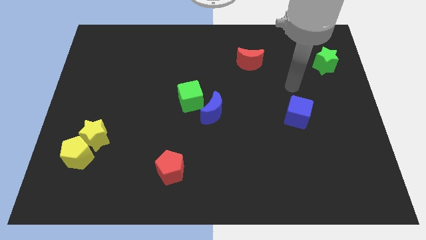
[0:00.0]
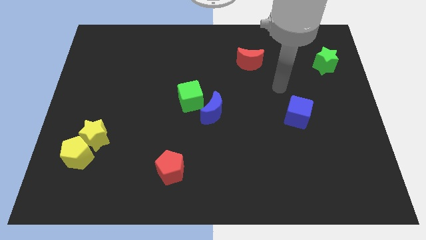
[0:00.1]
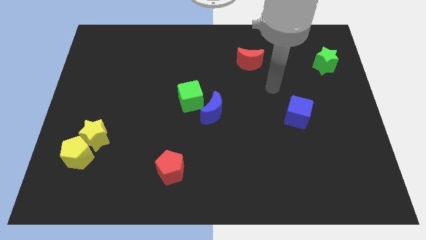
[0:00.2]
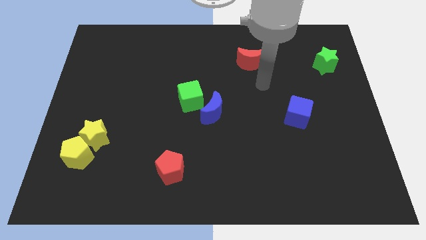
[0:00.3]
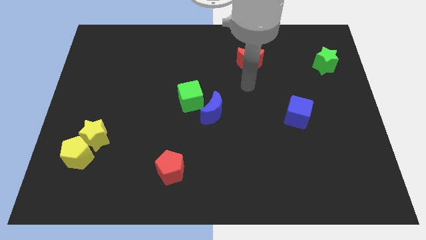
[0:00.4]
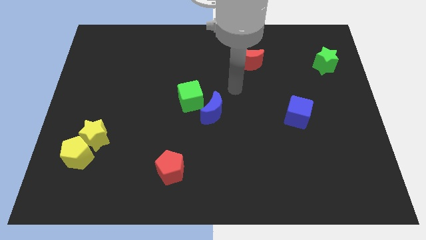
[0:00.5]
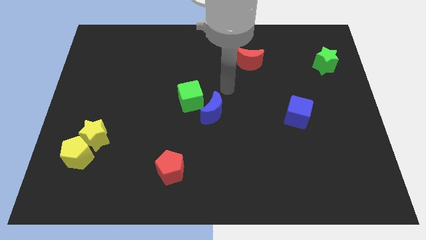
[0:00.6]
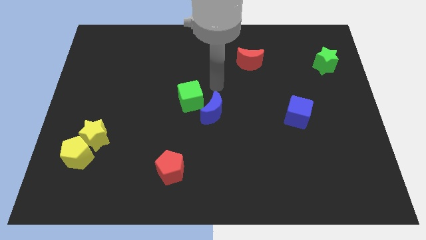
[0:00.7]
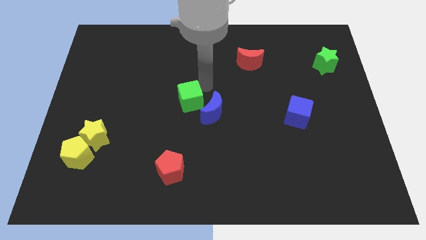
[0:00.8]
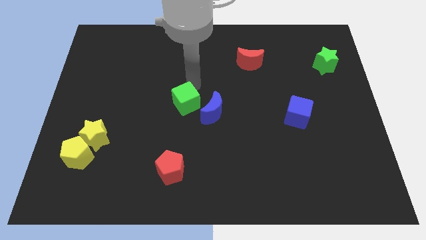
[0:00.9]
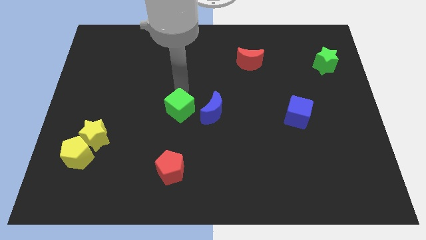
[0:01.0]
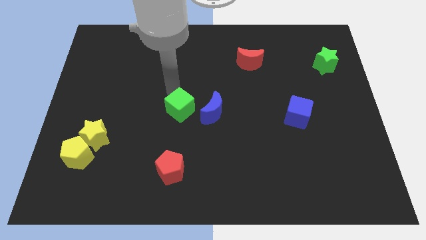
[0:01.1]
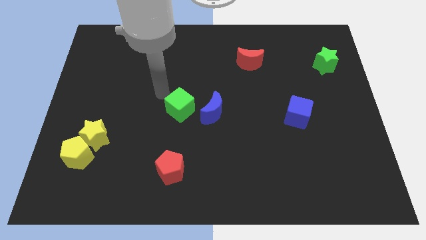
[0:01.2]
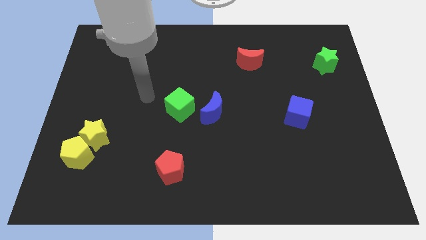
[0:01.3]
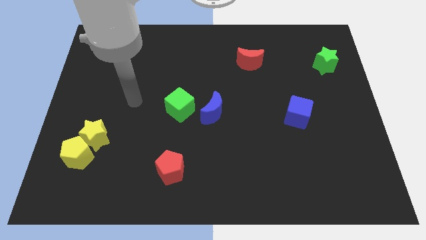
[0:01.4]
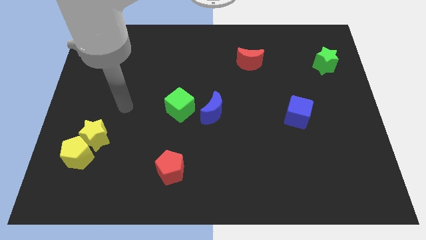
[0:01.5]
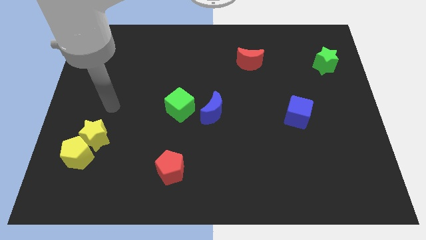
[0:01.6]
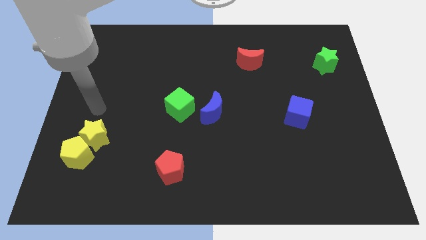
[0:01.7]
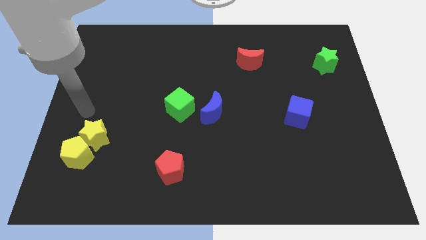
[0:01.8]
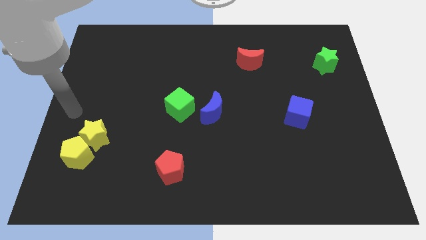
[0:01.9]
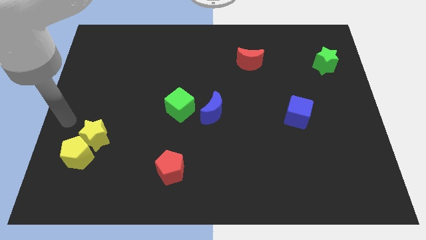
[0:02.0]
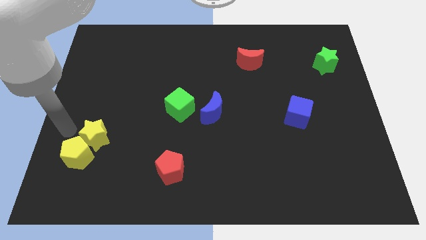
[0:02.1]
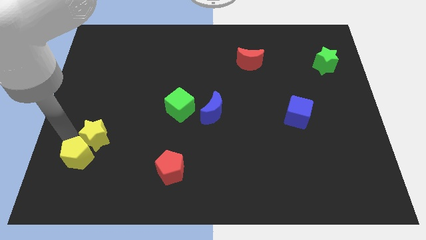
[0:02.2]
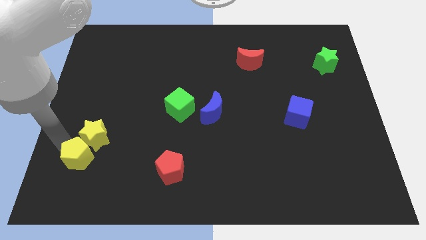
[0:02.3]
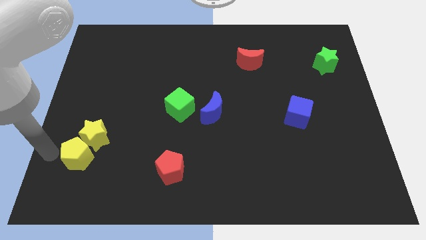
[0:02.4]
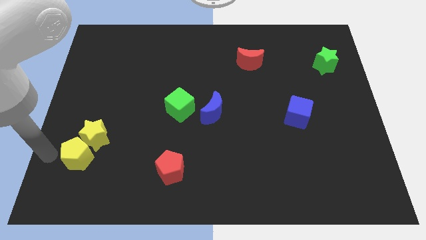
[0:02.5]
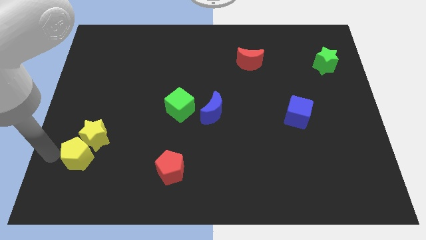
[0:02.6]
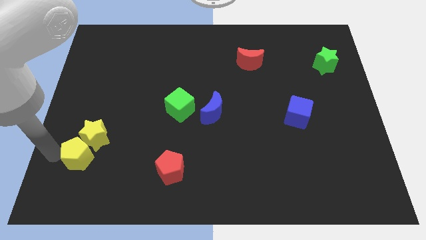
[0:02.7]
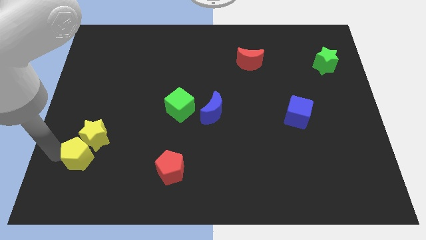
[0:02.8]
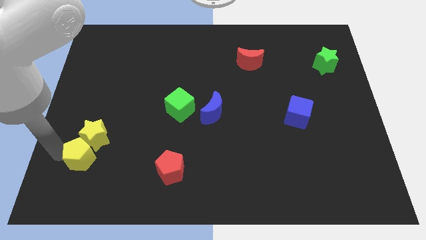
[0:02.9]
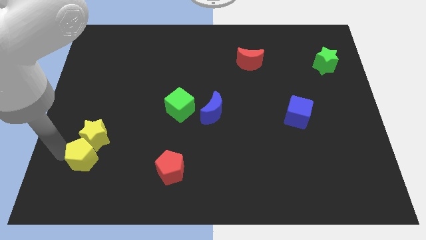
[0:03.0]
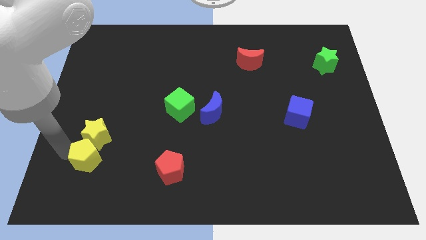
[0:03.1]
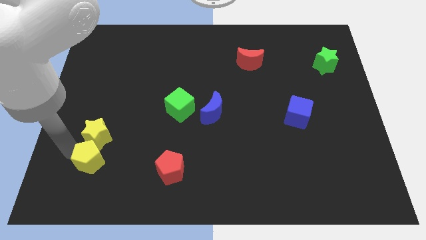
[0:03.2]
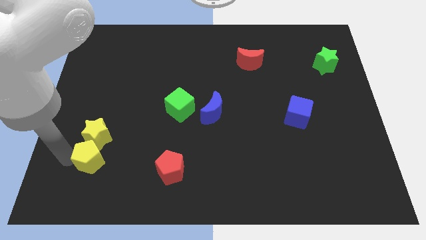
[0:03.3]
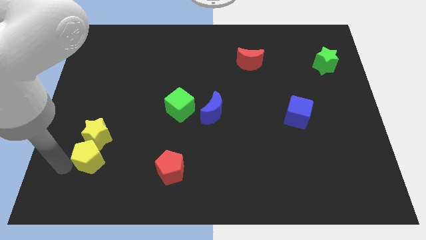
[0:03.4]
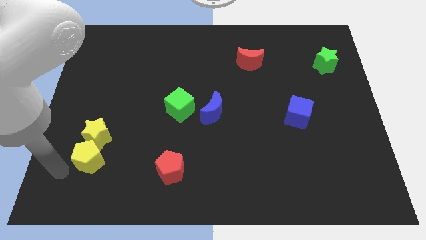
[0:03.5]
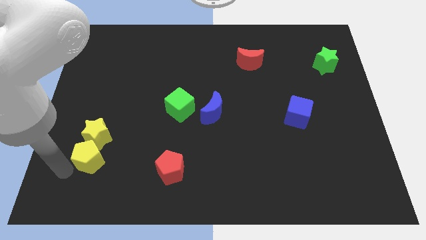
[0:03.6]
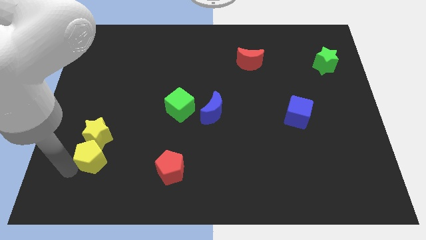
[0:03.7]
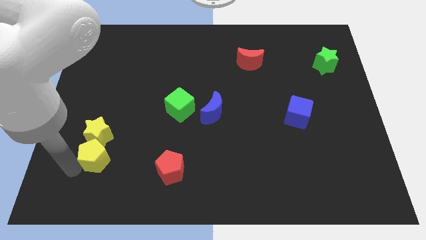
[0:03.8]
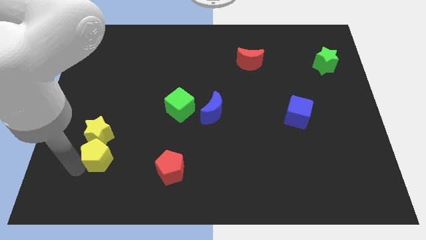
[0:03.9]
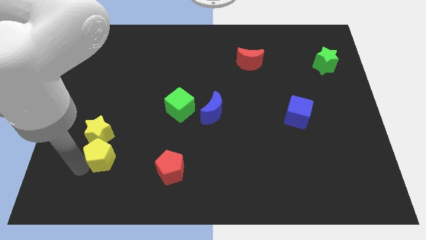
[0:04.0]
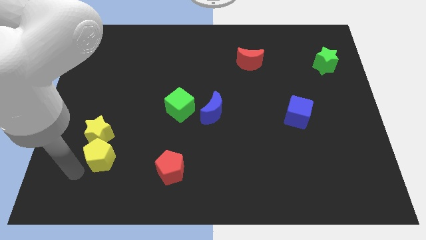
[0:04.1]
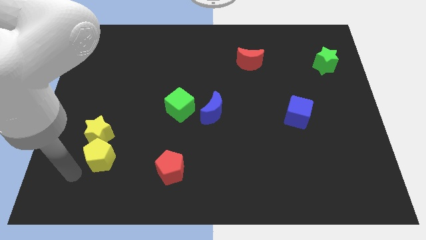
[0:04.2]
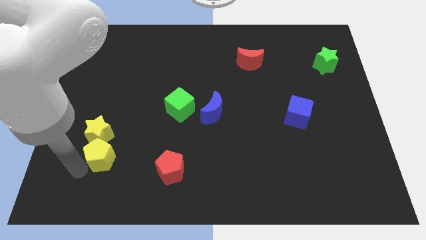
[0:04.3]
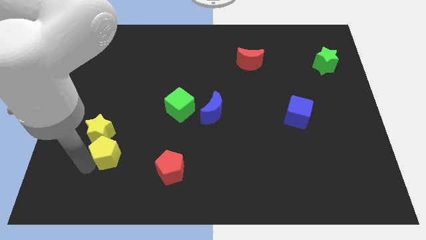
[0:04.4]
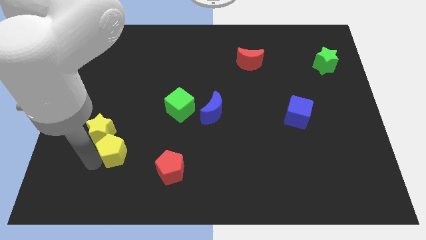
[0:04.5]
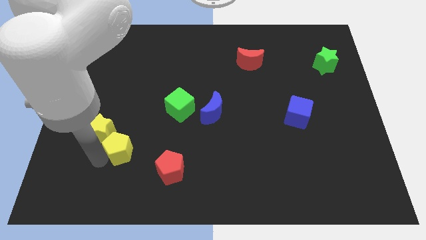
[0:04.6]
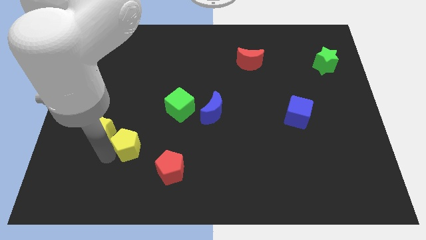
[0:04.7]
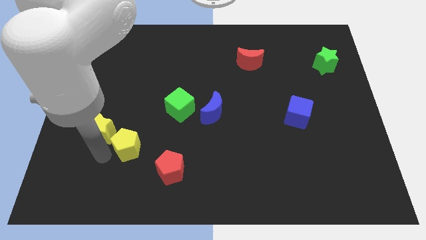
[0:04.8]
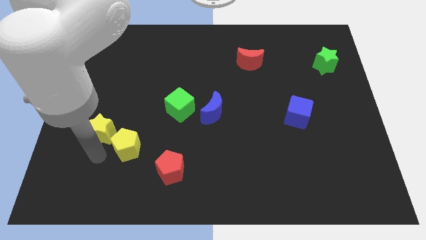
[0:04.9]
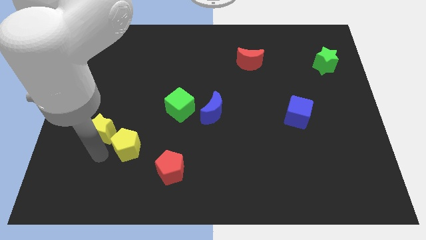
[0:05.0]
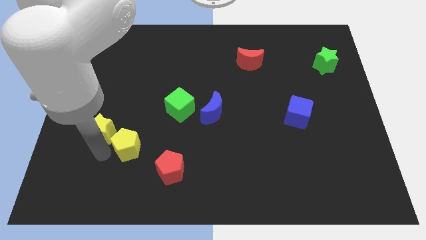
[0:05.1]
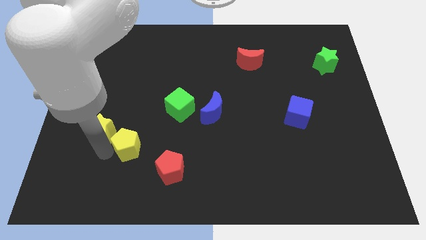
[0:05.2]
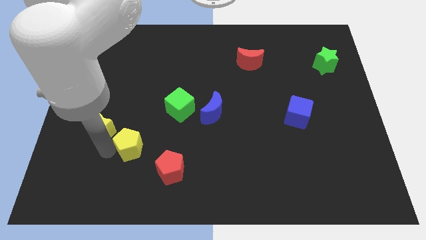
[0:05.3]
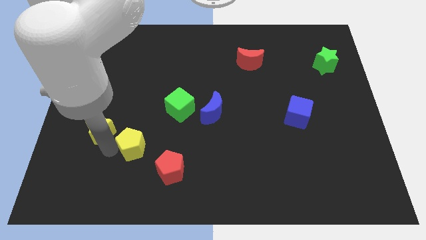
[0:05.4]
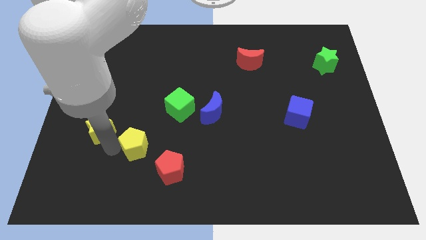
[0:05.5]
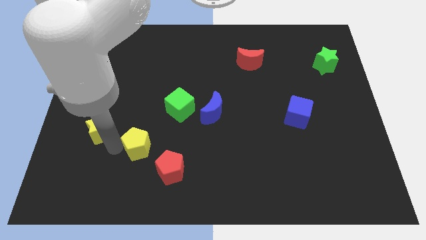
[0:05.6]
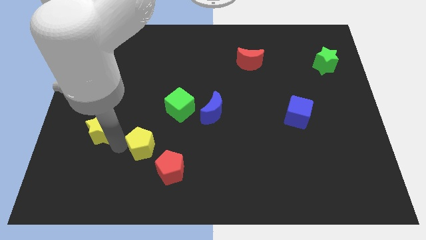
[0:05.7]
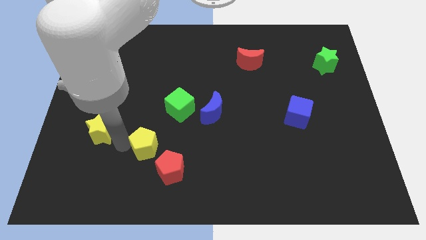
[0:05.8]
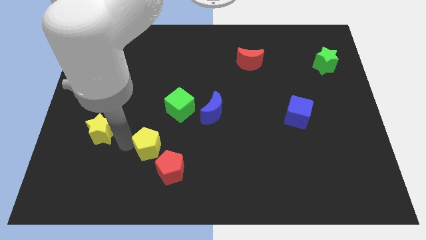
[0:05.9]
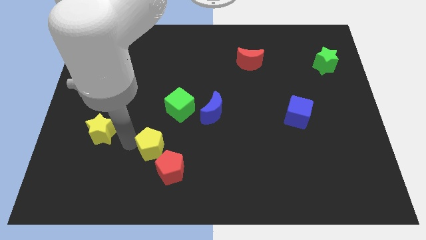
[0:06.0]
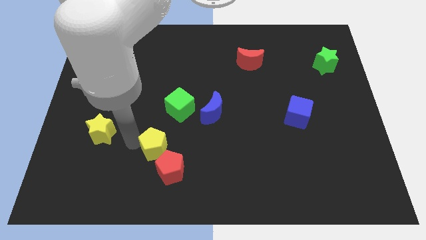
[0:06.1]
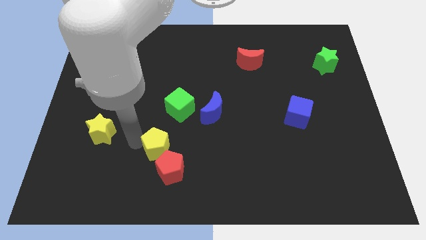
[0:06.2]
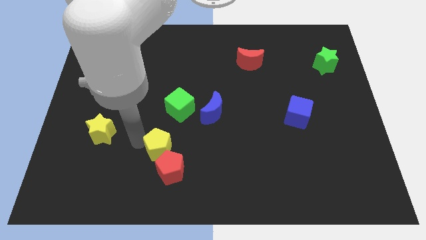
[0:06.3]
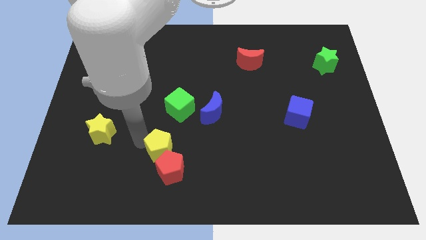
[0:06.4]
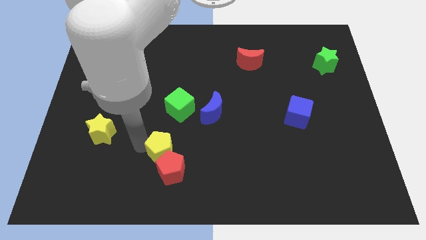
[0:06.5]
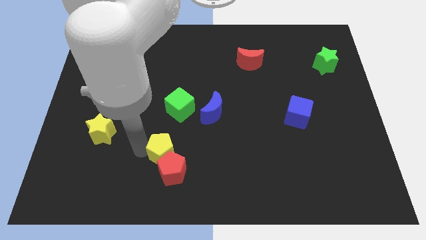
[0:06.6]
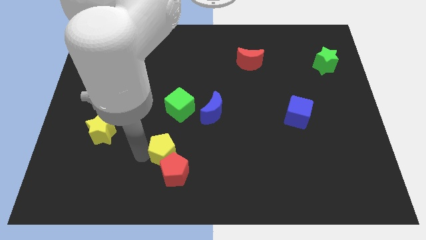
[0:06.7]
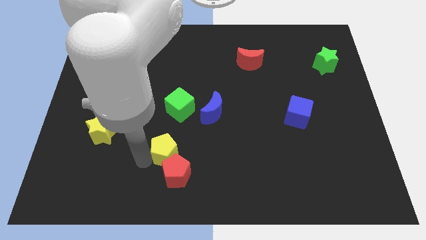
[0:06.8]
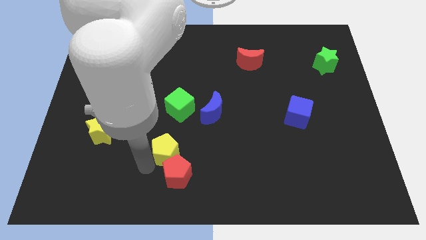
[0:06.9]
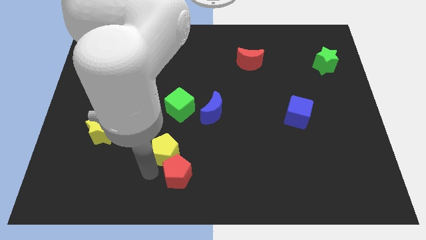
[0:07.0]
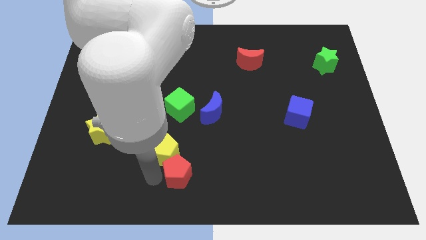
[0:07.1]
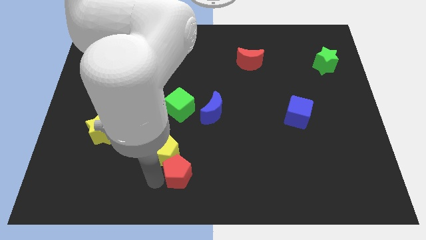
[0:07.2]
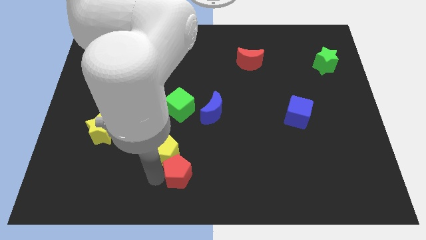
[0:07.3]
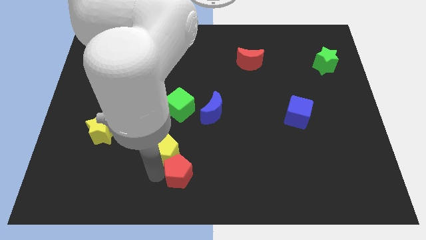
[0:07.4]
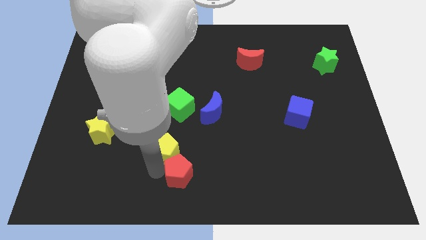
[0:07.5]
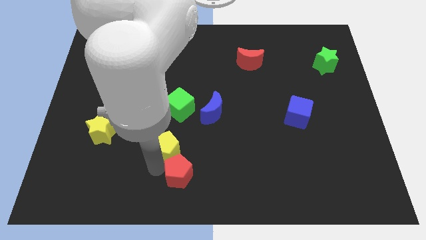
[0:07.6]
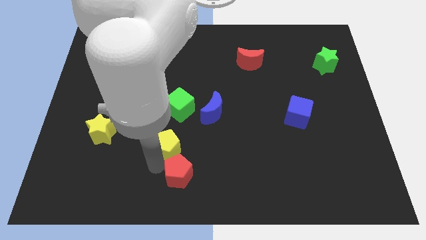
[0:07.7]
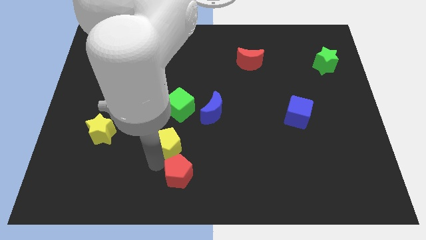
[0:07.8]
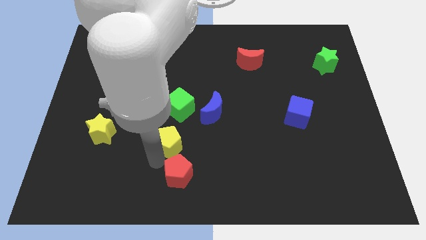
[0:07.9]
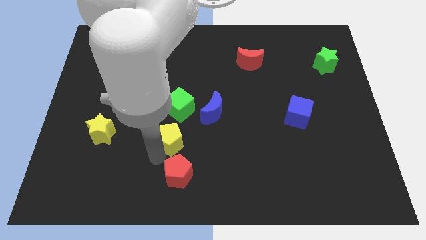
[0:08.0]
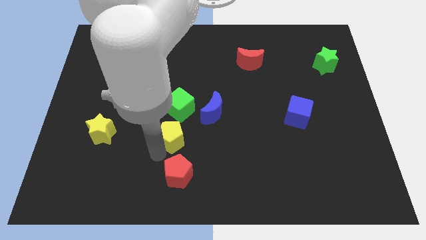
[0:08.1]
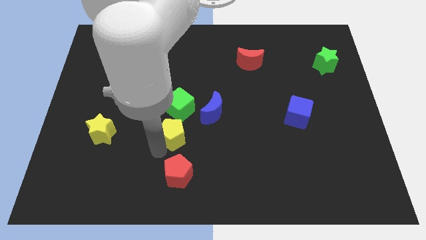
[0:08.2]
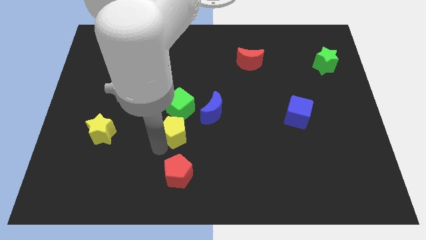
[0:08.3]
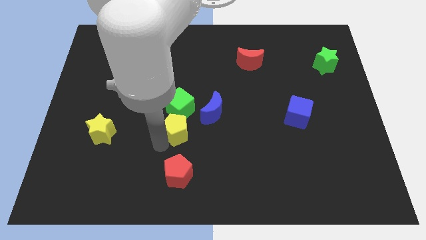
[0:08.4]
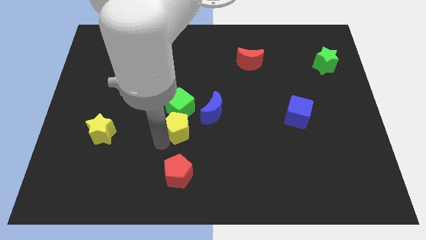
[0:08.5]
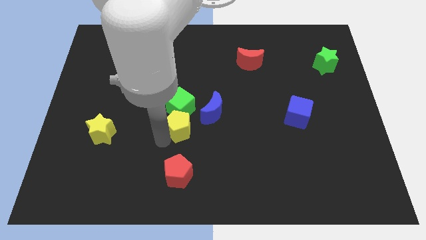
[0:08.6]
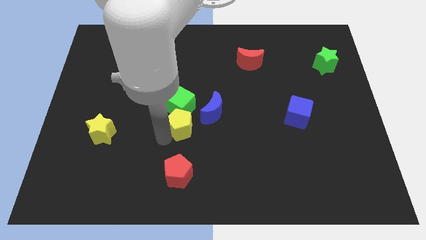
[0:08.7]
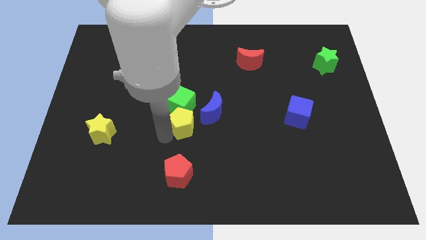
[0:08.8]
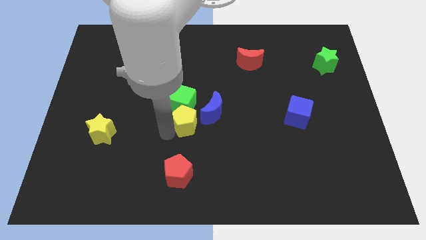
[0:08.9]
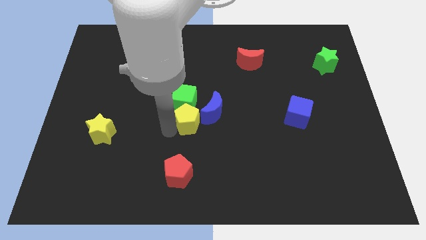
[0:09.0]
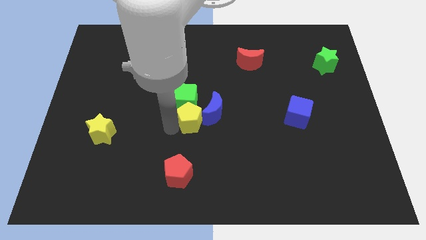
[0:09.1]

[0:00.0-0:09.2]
put the yellow pentagon towards the blue moon
